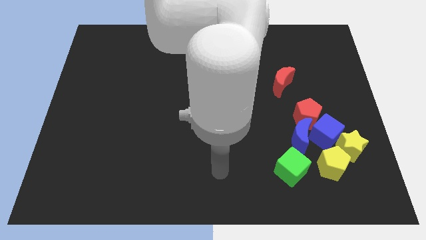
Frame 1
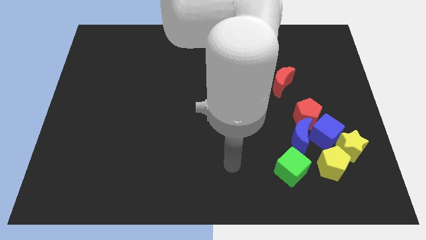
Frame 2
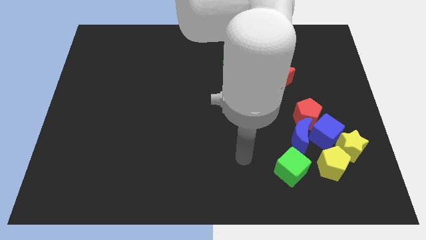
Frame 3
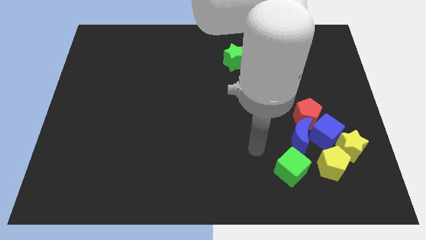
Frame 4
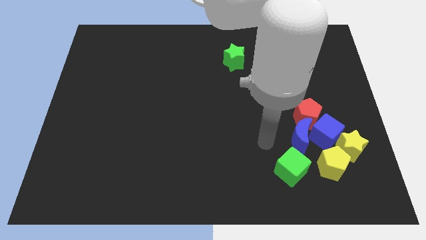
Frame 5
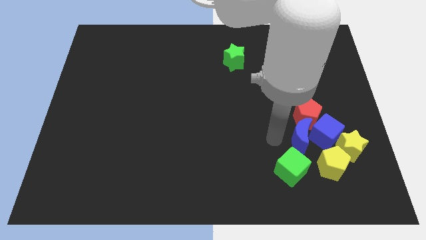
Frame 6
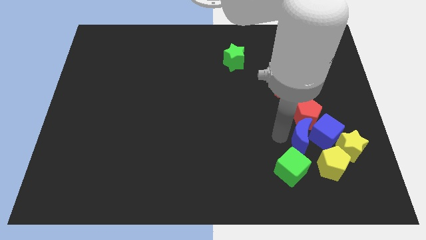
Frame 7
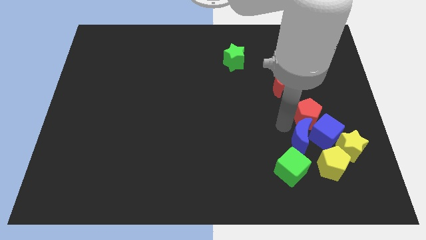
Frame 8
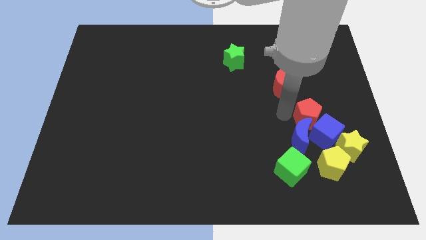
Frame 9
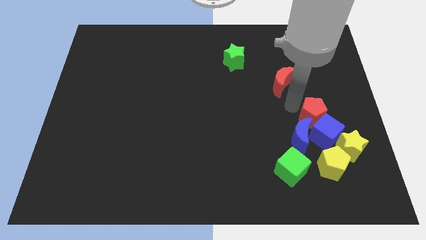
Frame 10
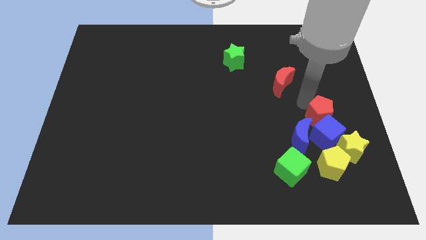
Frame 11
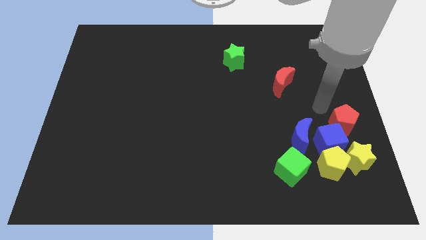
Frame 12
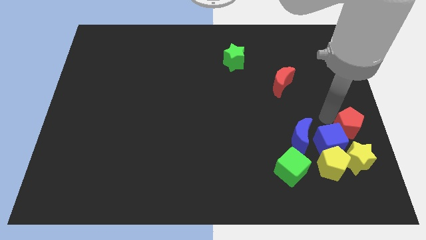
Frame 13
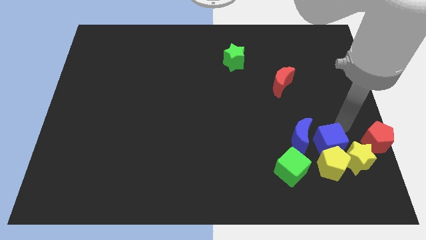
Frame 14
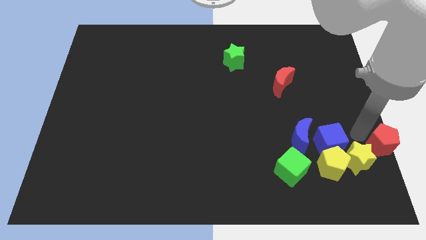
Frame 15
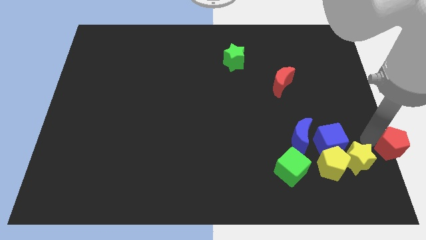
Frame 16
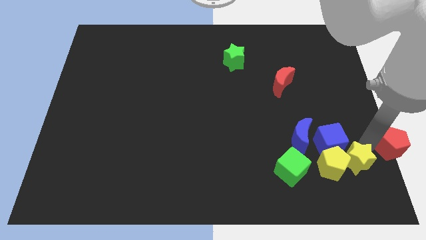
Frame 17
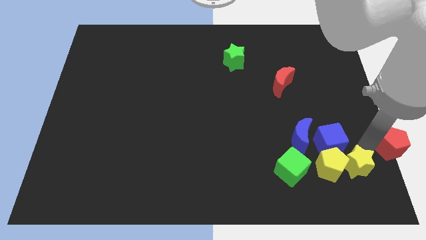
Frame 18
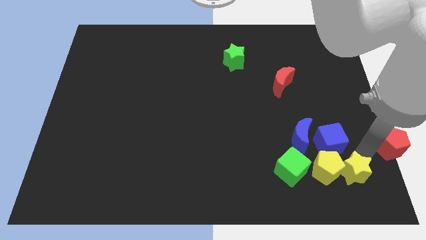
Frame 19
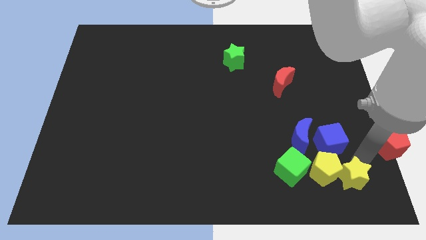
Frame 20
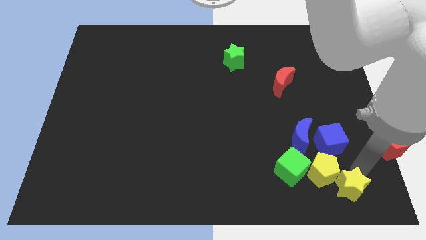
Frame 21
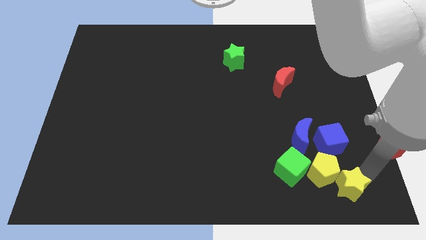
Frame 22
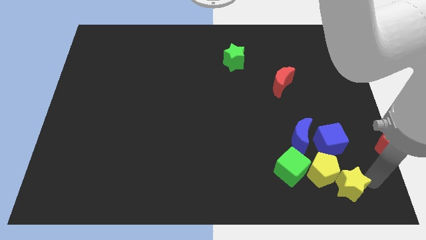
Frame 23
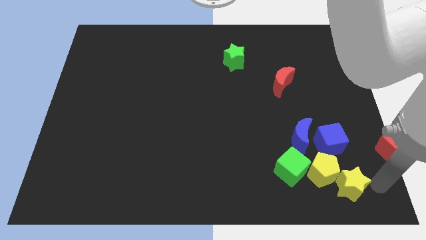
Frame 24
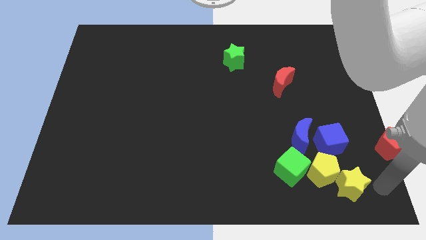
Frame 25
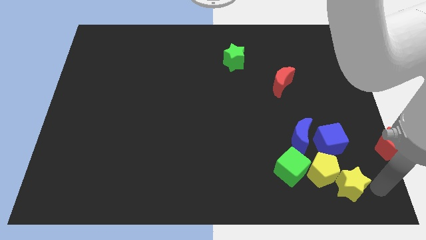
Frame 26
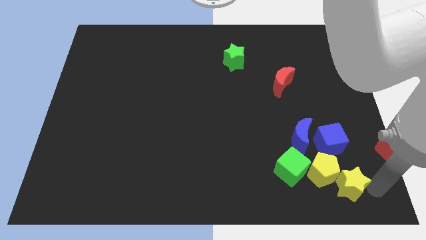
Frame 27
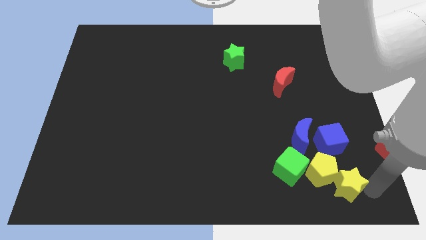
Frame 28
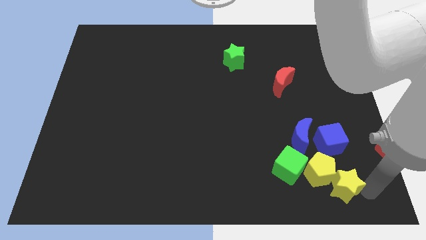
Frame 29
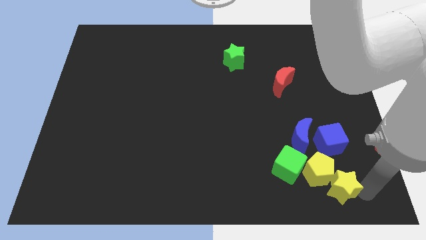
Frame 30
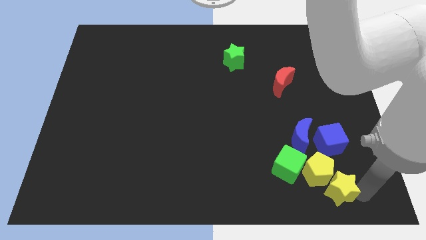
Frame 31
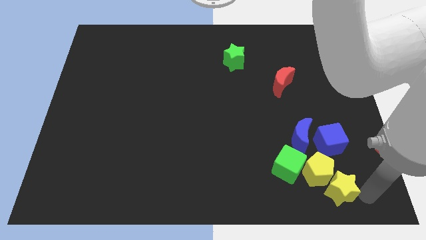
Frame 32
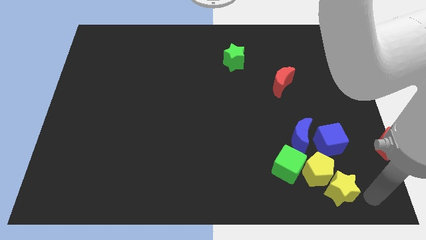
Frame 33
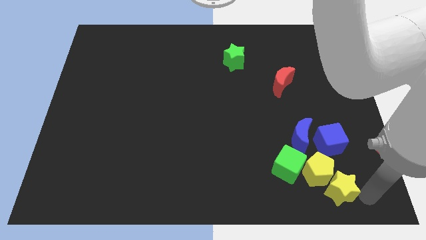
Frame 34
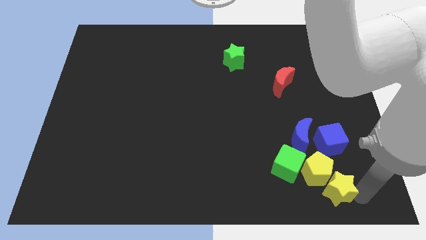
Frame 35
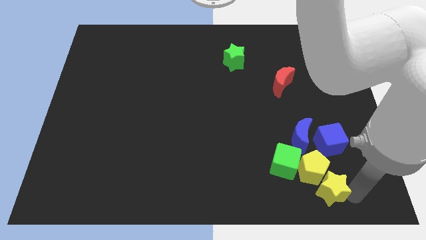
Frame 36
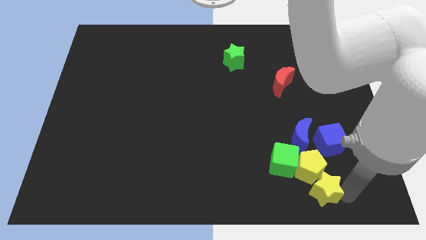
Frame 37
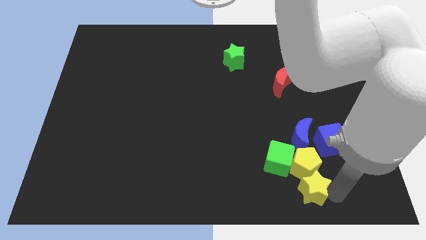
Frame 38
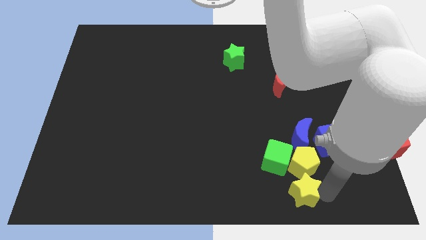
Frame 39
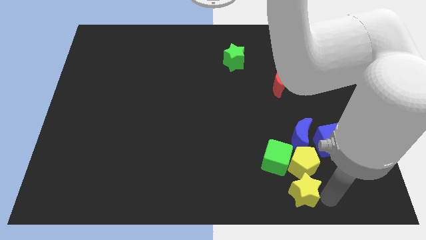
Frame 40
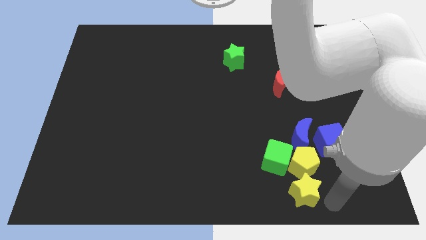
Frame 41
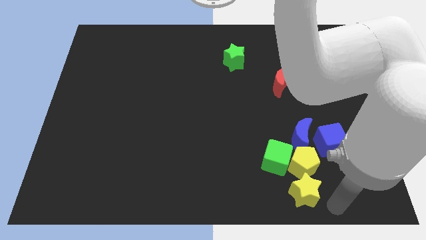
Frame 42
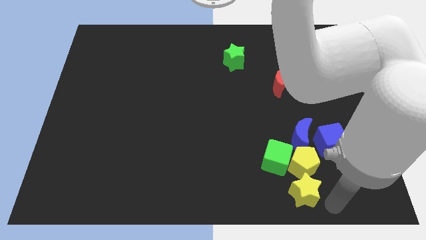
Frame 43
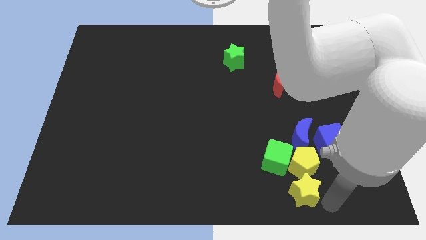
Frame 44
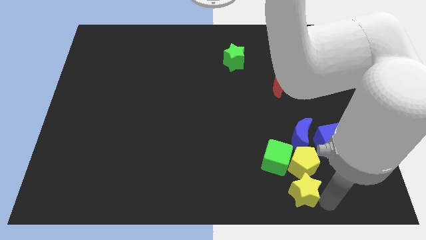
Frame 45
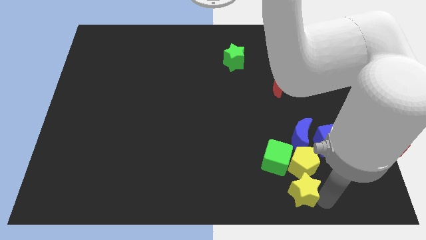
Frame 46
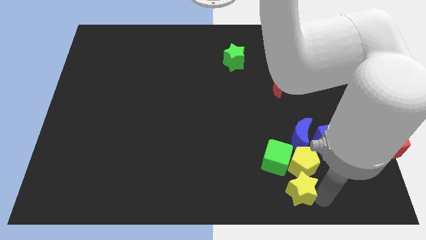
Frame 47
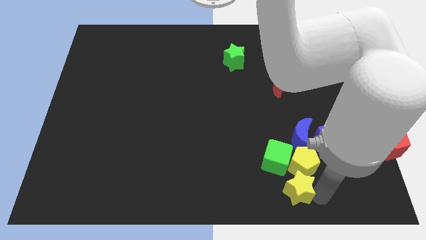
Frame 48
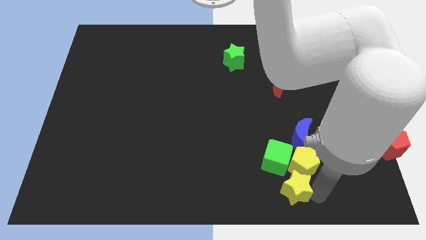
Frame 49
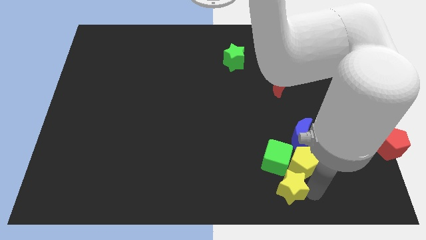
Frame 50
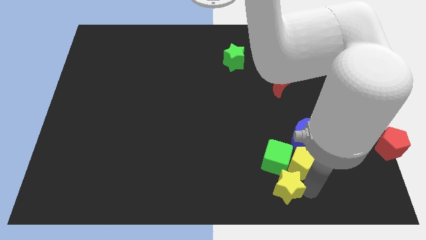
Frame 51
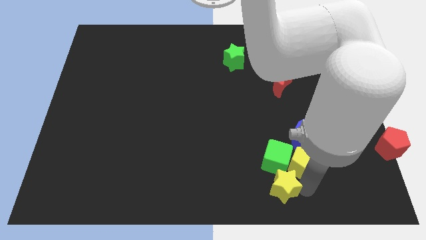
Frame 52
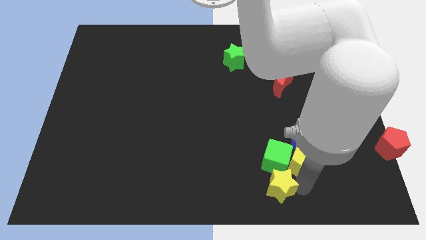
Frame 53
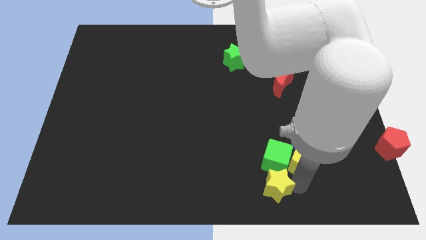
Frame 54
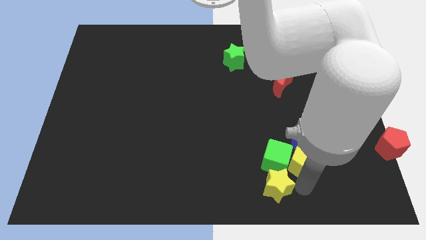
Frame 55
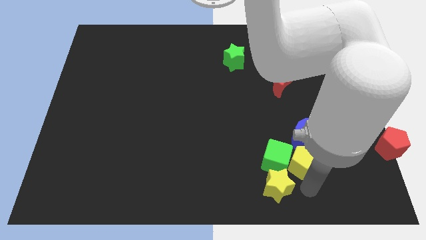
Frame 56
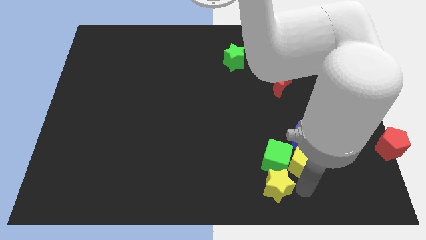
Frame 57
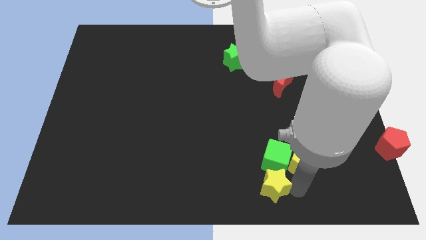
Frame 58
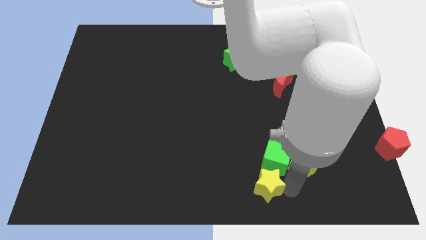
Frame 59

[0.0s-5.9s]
put the yellow star just left of the yellow pentagon

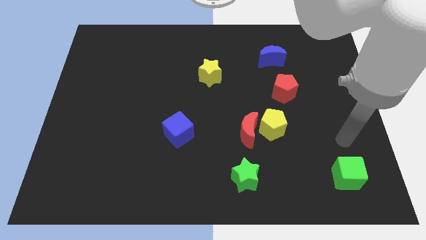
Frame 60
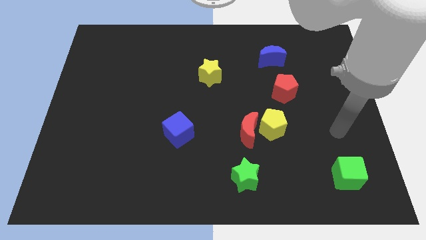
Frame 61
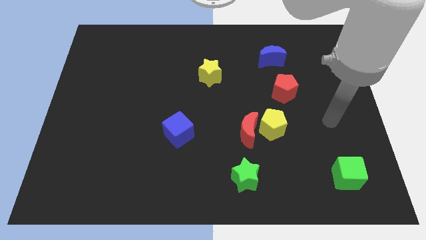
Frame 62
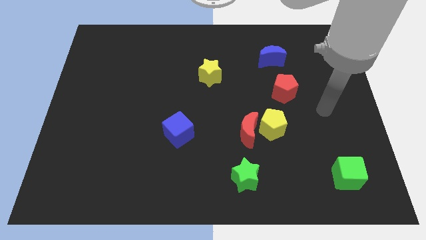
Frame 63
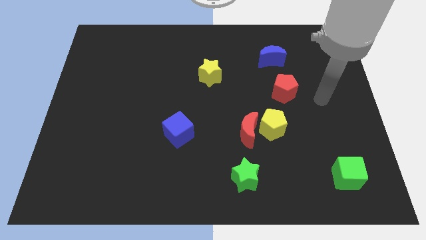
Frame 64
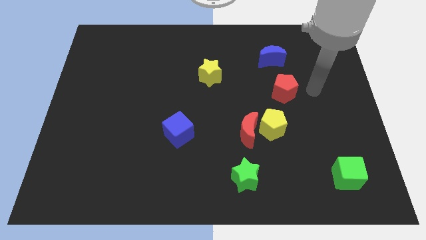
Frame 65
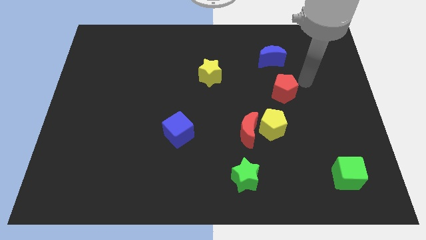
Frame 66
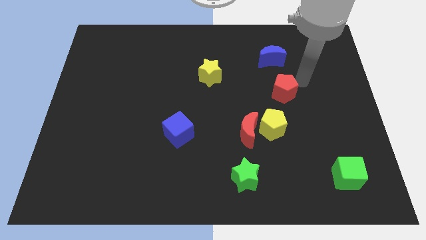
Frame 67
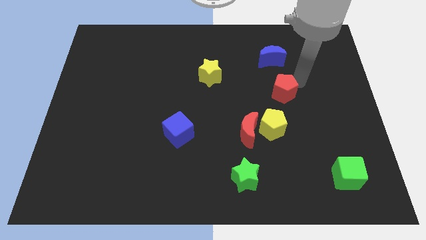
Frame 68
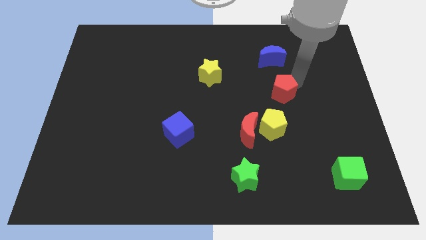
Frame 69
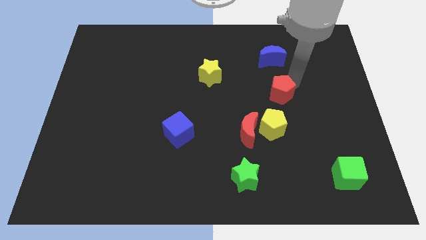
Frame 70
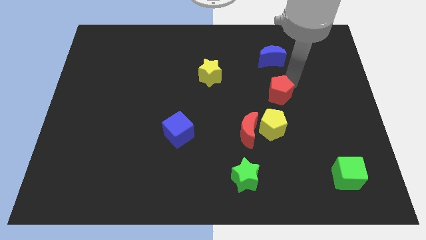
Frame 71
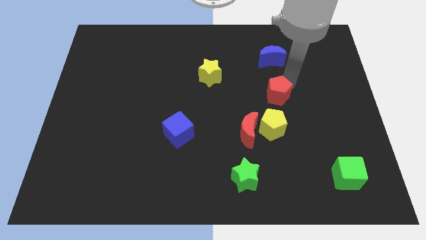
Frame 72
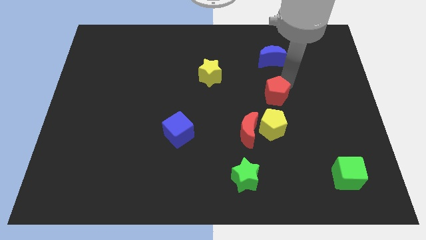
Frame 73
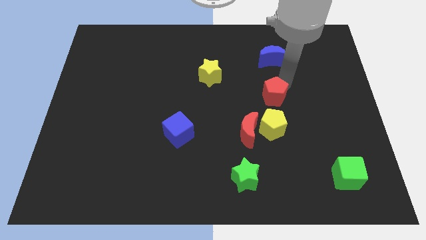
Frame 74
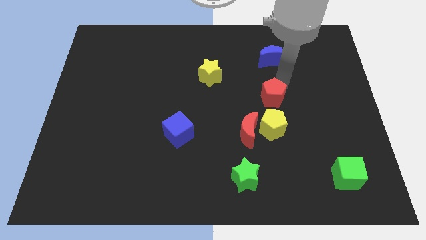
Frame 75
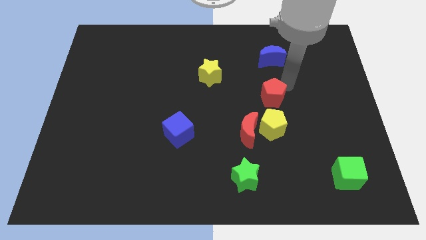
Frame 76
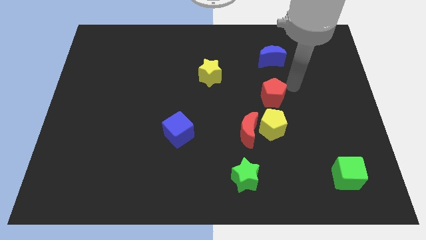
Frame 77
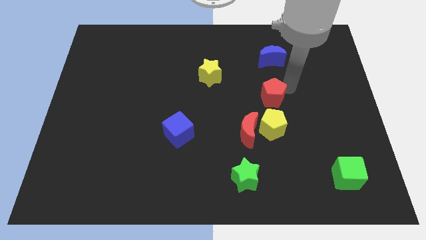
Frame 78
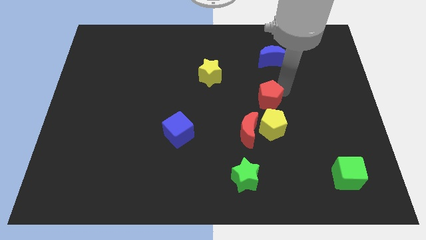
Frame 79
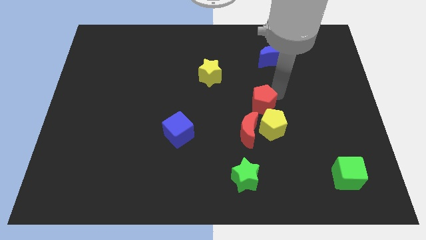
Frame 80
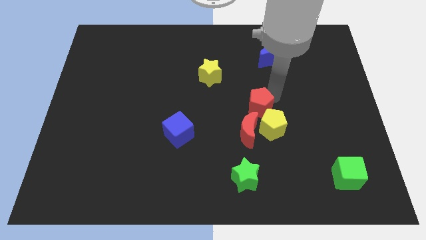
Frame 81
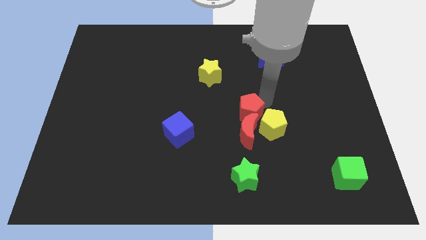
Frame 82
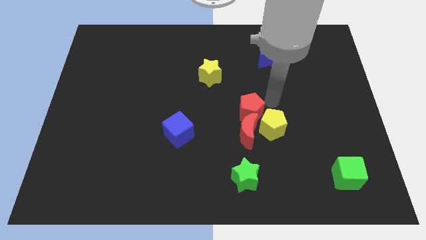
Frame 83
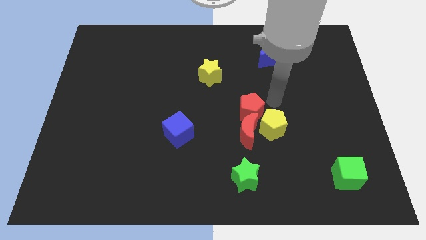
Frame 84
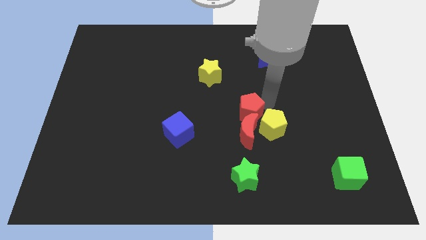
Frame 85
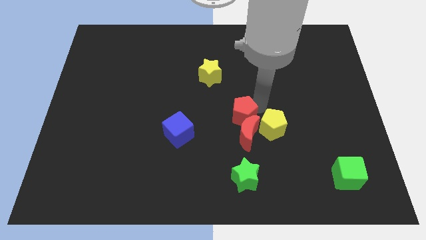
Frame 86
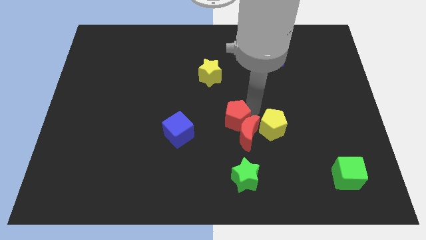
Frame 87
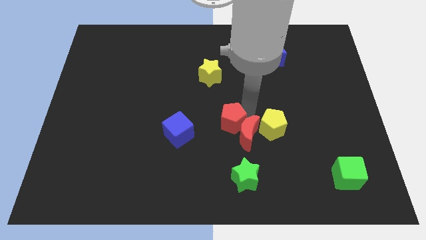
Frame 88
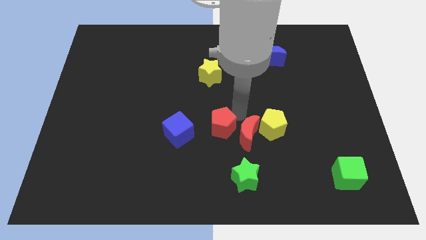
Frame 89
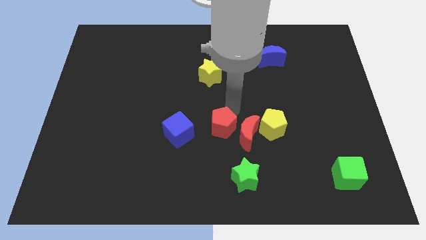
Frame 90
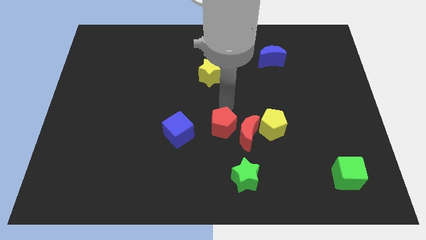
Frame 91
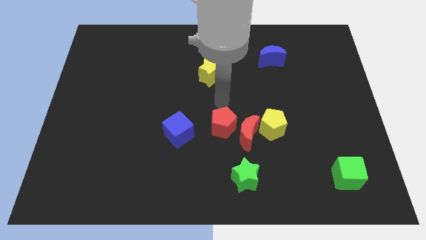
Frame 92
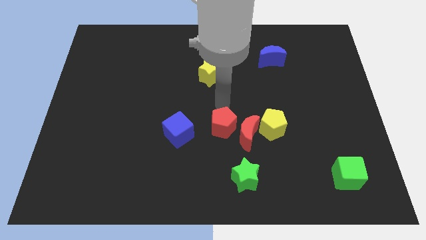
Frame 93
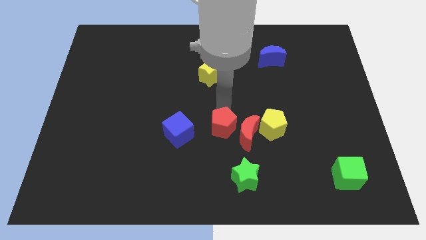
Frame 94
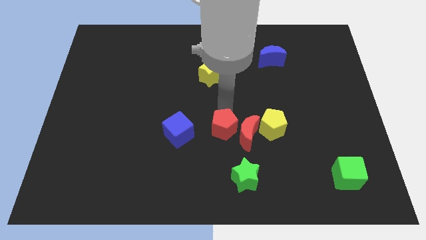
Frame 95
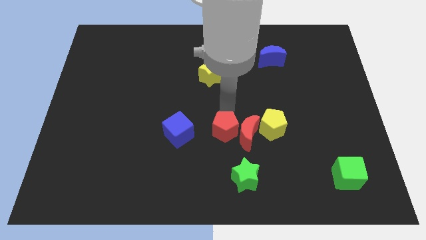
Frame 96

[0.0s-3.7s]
push the red pentagon diagonally down and to the left of the red moon
